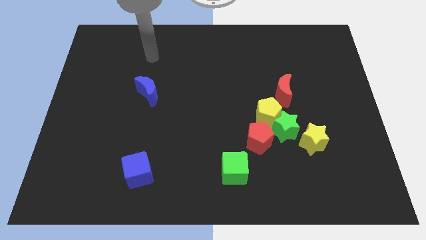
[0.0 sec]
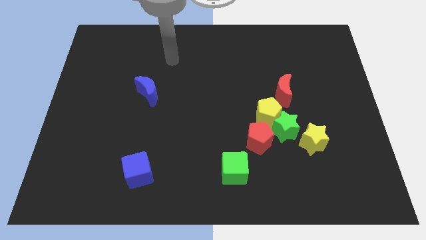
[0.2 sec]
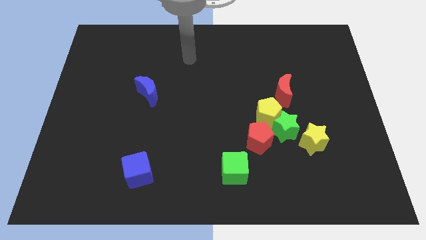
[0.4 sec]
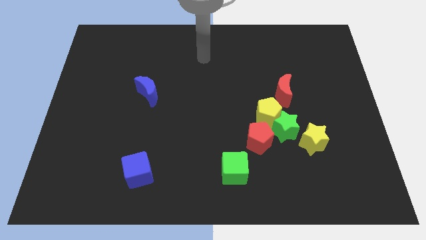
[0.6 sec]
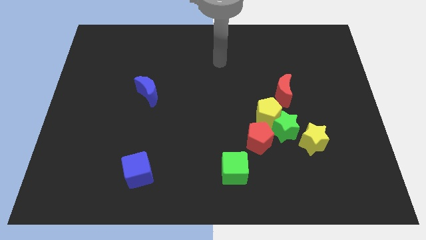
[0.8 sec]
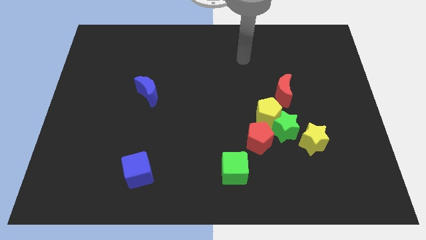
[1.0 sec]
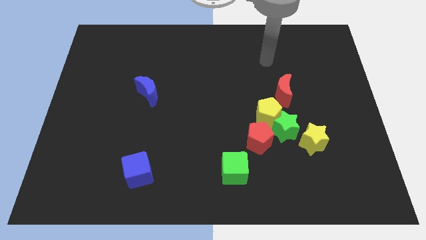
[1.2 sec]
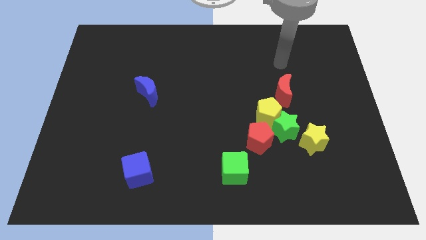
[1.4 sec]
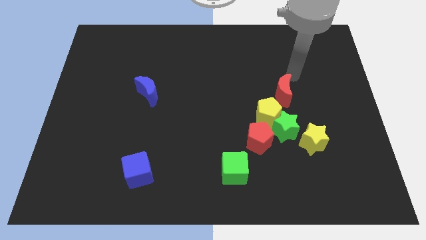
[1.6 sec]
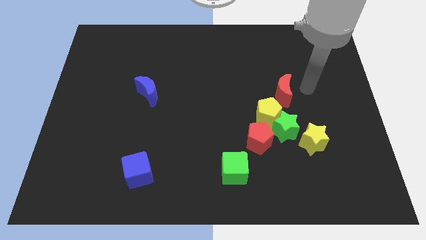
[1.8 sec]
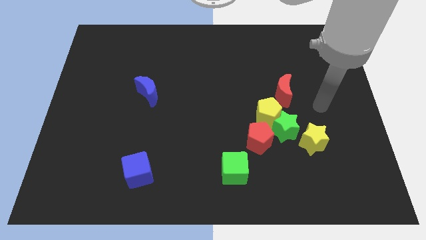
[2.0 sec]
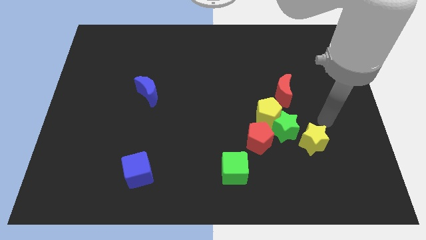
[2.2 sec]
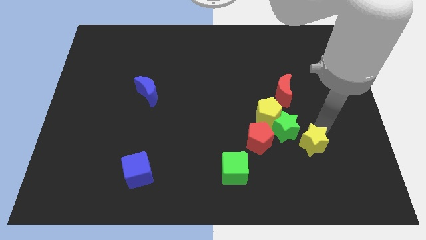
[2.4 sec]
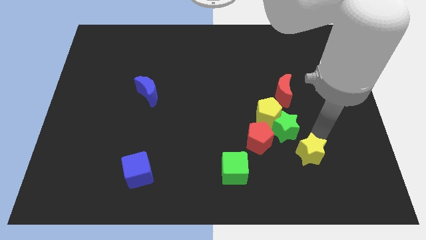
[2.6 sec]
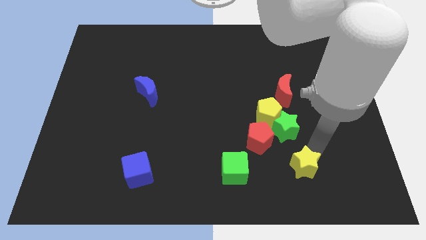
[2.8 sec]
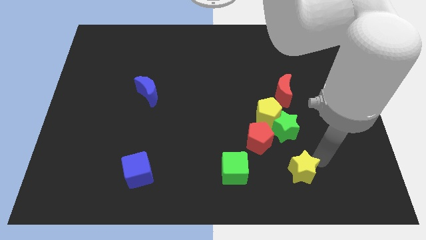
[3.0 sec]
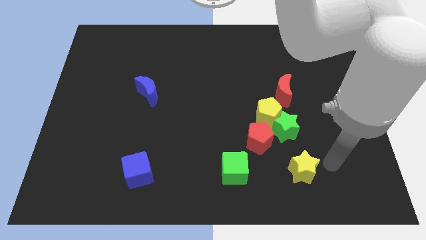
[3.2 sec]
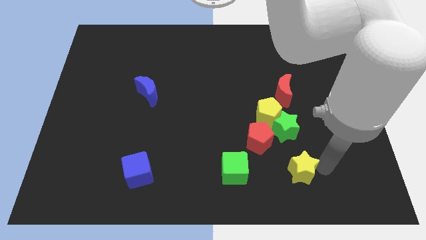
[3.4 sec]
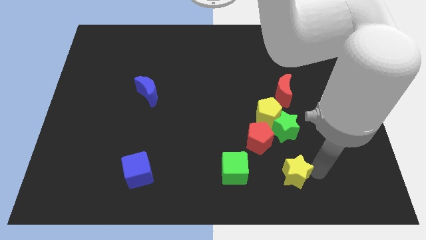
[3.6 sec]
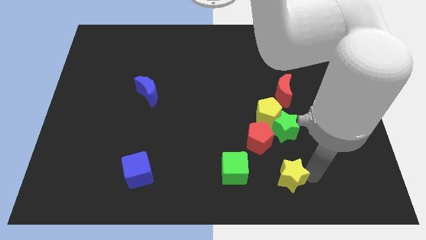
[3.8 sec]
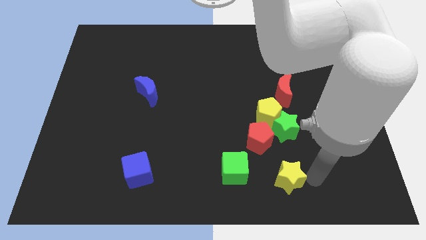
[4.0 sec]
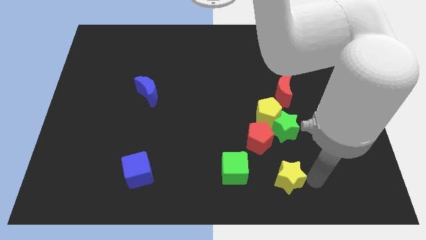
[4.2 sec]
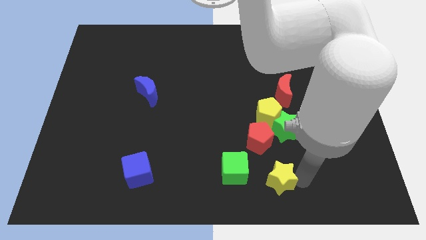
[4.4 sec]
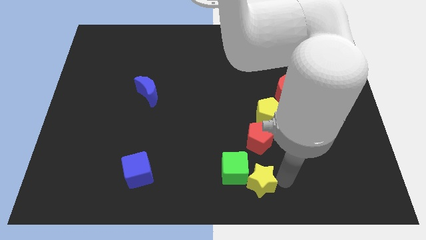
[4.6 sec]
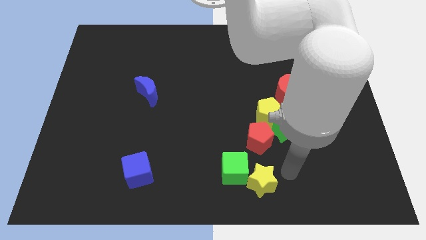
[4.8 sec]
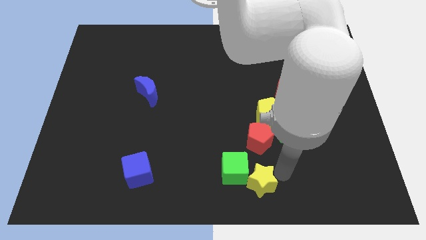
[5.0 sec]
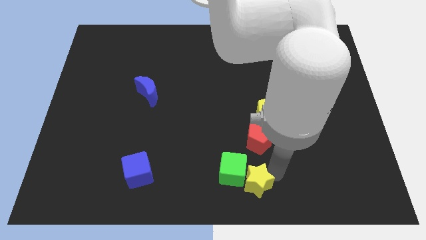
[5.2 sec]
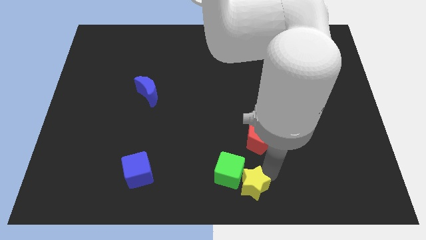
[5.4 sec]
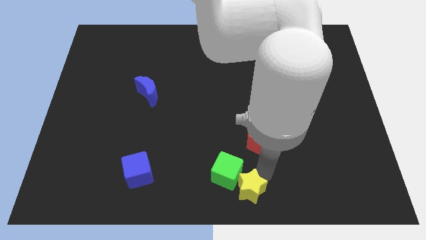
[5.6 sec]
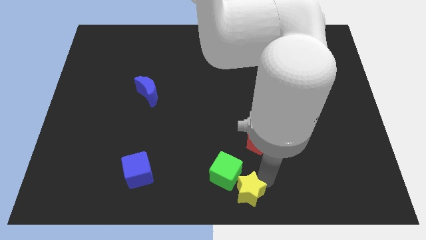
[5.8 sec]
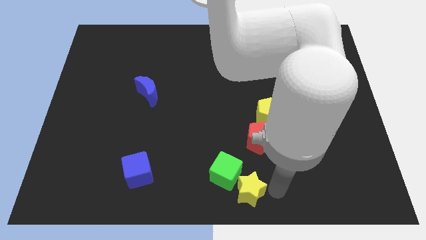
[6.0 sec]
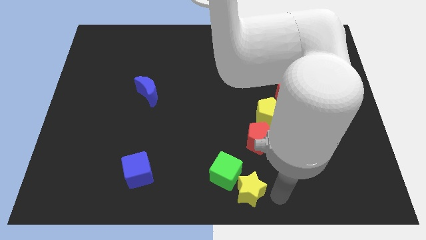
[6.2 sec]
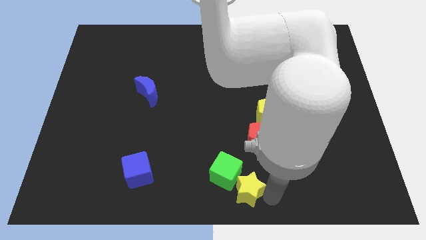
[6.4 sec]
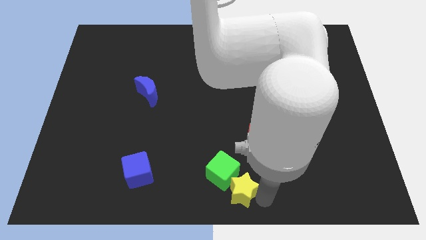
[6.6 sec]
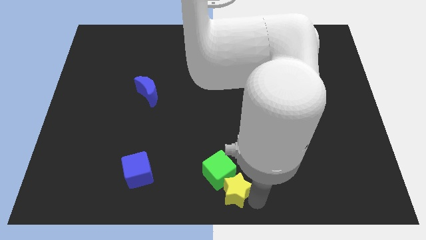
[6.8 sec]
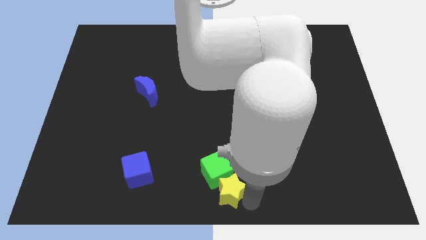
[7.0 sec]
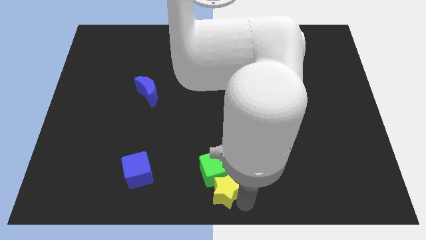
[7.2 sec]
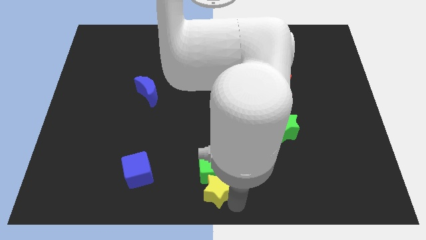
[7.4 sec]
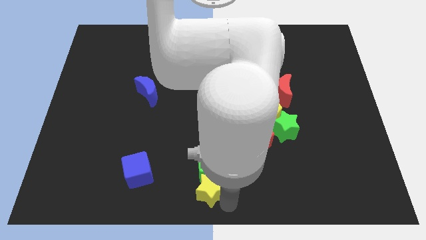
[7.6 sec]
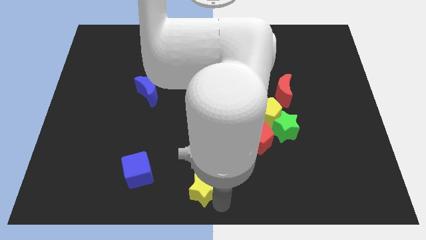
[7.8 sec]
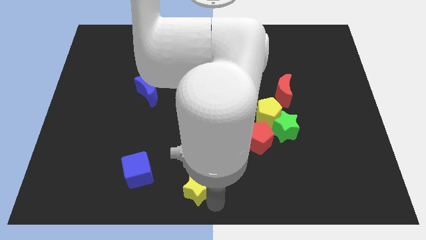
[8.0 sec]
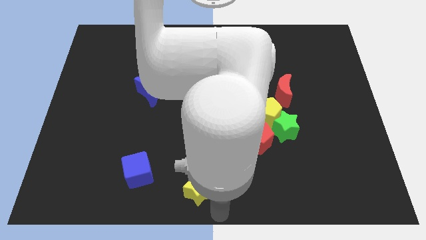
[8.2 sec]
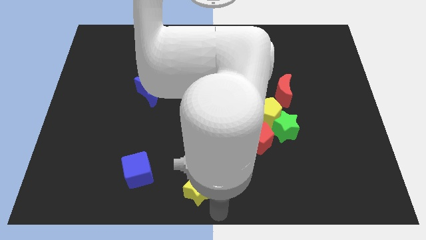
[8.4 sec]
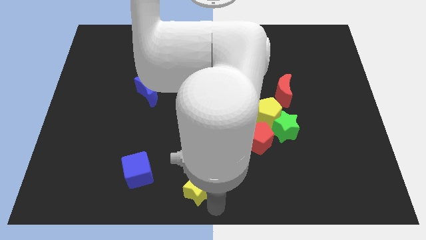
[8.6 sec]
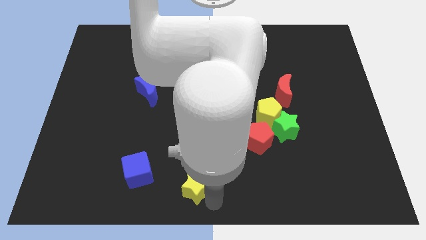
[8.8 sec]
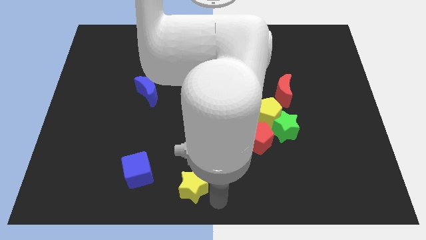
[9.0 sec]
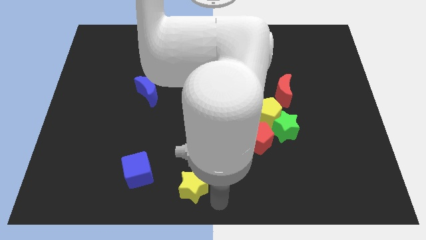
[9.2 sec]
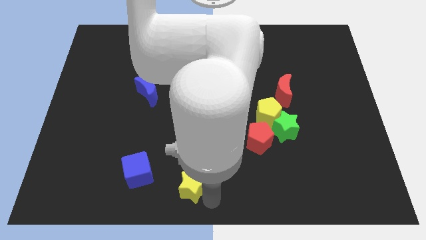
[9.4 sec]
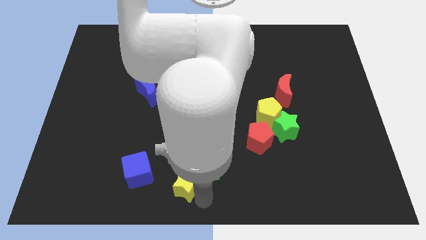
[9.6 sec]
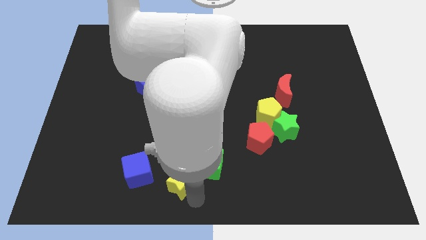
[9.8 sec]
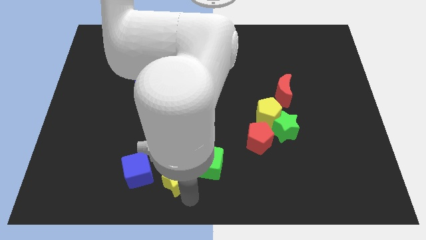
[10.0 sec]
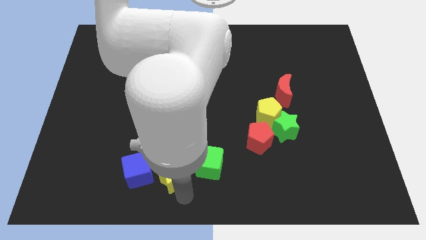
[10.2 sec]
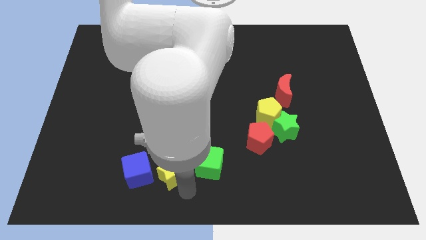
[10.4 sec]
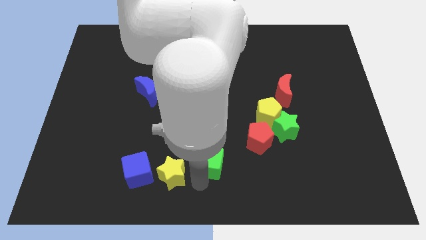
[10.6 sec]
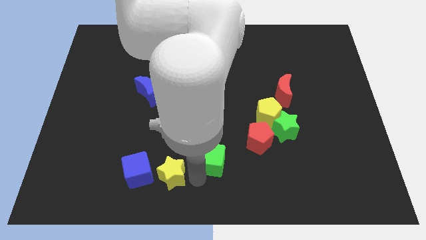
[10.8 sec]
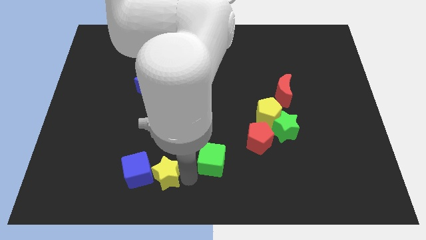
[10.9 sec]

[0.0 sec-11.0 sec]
push the yellow star towards the blue cube

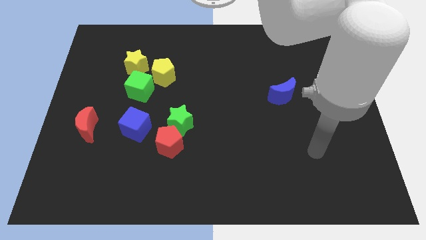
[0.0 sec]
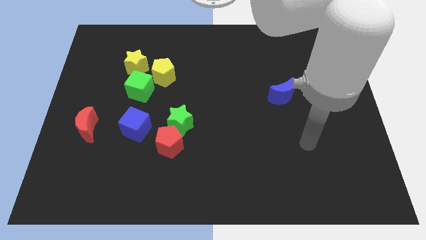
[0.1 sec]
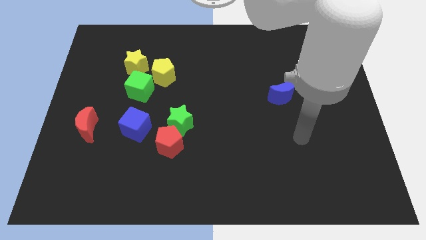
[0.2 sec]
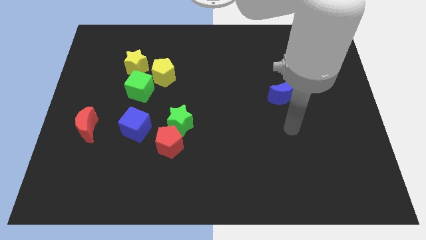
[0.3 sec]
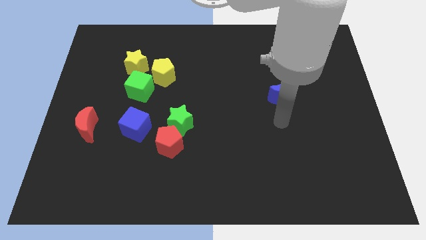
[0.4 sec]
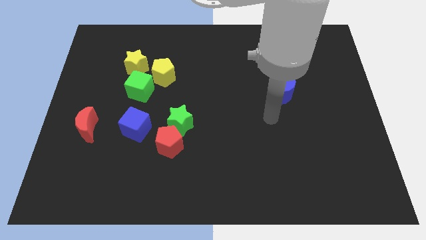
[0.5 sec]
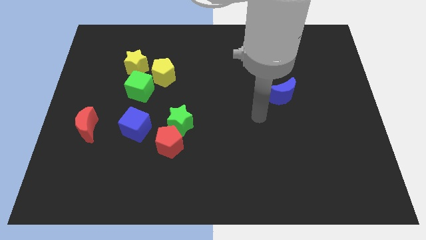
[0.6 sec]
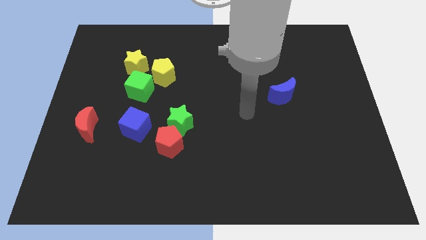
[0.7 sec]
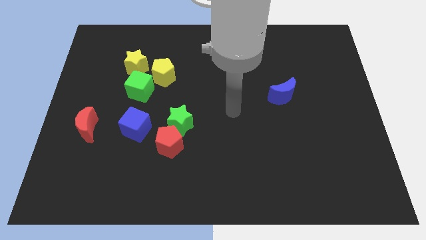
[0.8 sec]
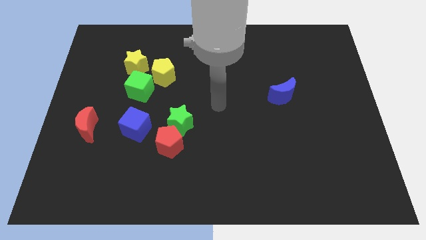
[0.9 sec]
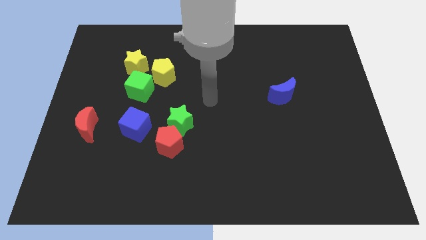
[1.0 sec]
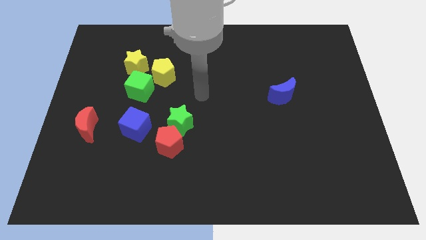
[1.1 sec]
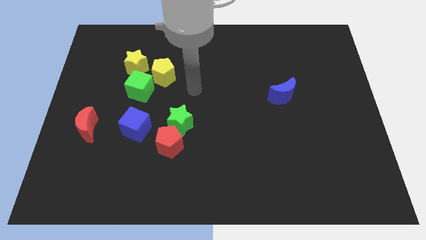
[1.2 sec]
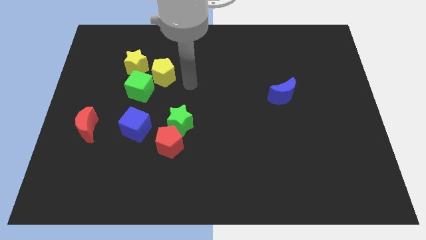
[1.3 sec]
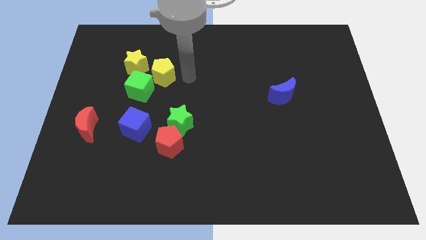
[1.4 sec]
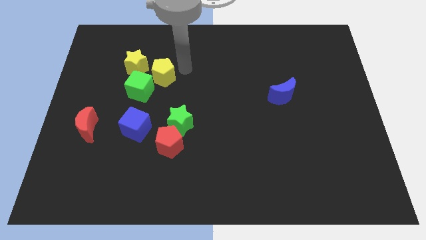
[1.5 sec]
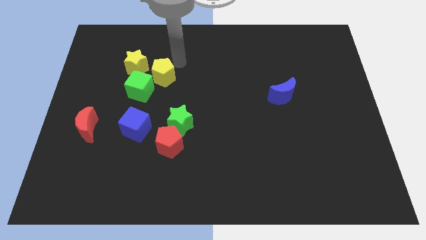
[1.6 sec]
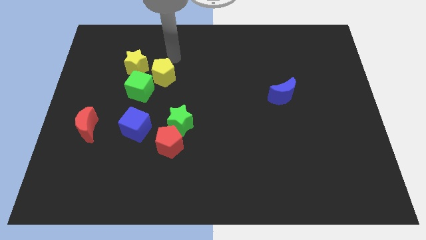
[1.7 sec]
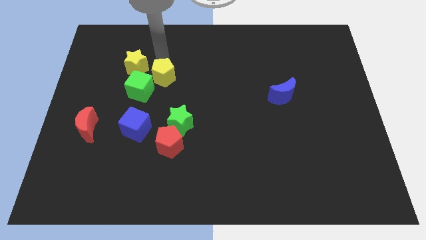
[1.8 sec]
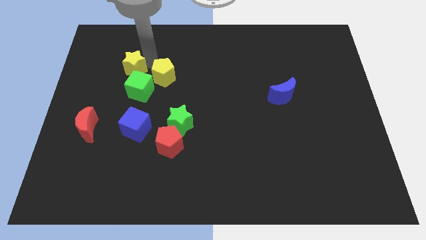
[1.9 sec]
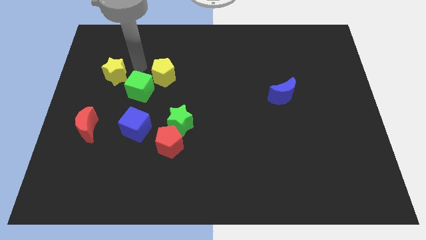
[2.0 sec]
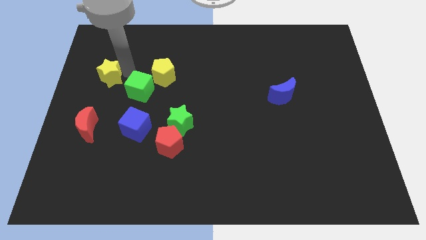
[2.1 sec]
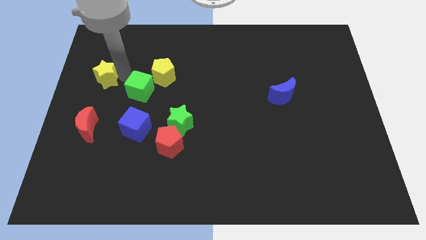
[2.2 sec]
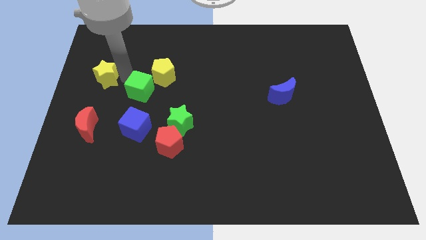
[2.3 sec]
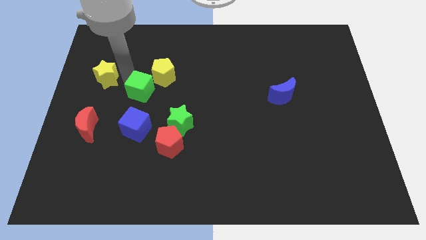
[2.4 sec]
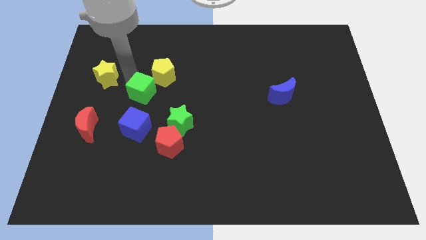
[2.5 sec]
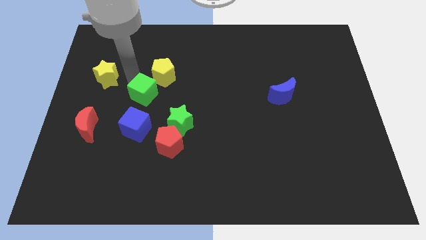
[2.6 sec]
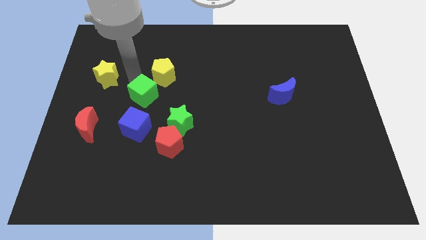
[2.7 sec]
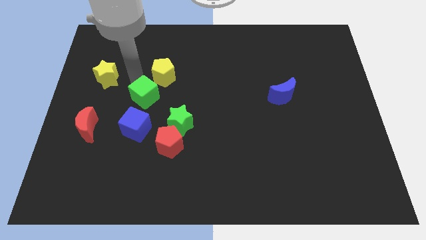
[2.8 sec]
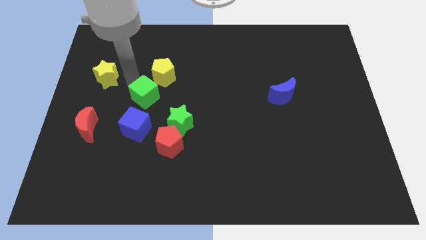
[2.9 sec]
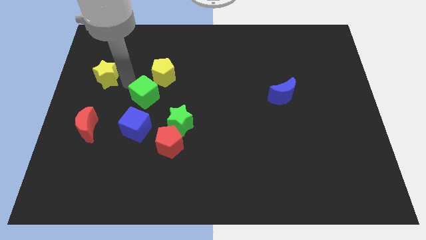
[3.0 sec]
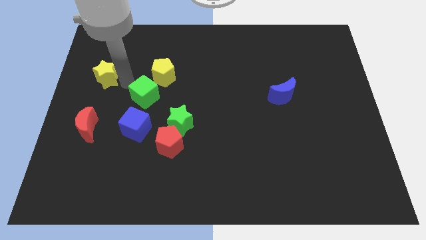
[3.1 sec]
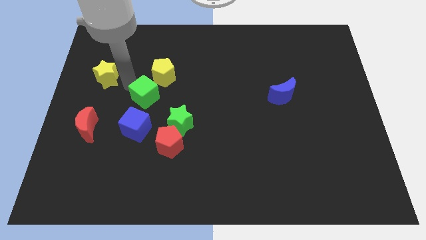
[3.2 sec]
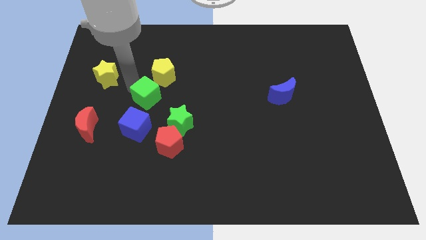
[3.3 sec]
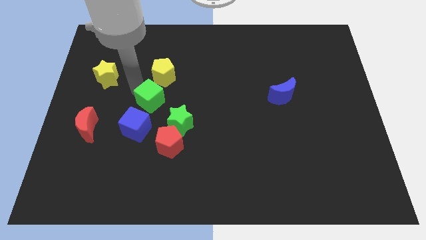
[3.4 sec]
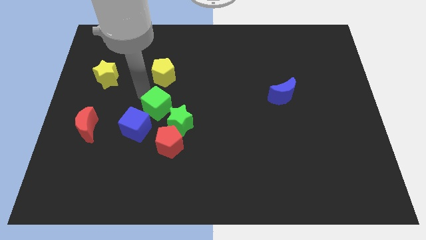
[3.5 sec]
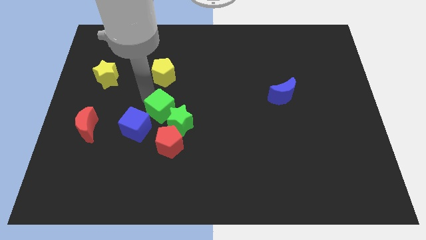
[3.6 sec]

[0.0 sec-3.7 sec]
move the green cube next to the green star
